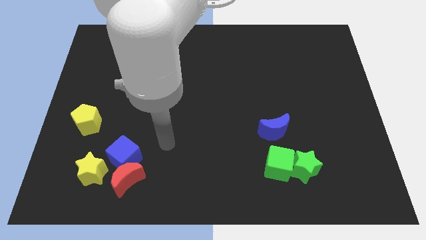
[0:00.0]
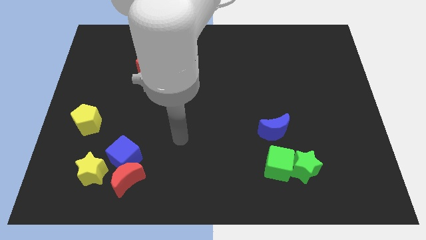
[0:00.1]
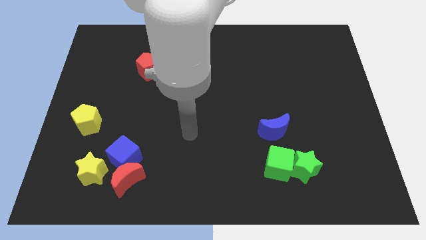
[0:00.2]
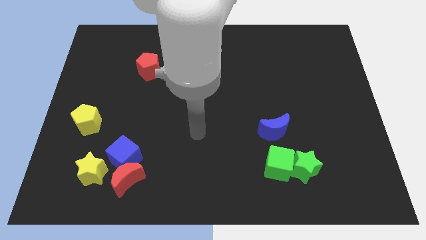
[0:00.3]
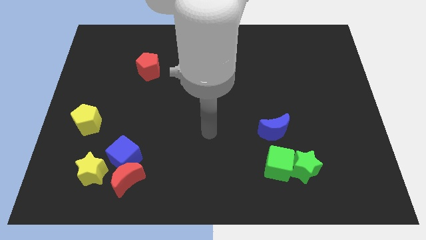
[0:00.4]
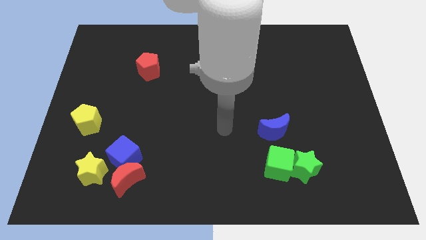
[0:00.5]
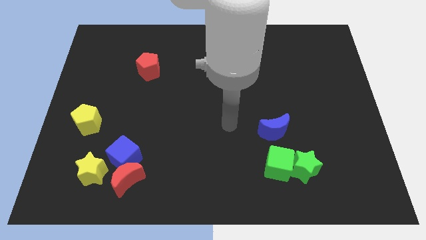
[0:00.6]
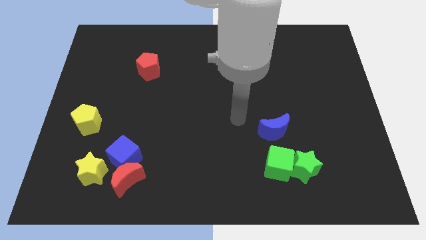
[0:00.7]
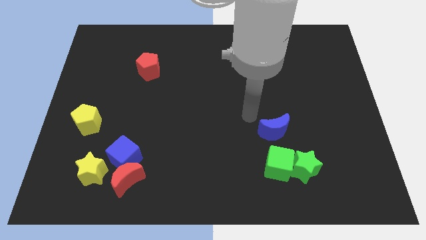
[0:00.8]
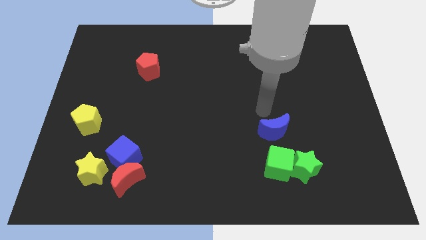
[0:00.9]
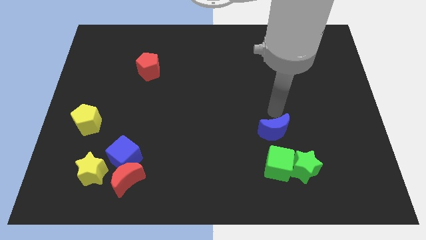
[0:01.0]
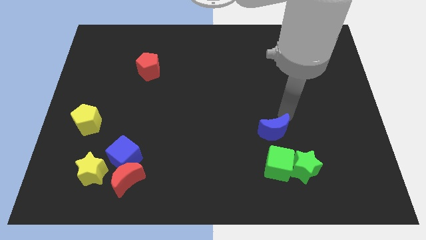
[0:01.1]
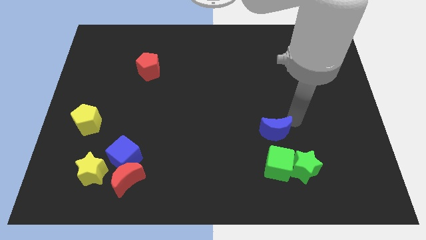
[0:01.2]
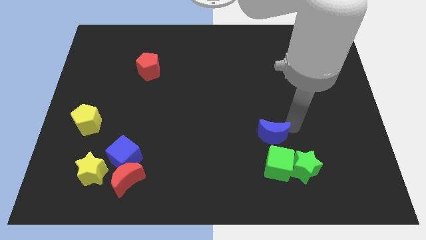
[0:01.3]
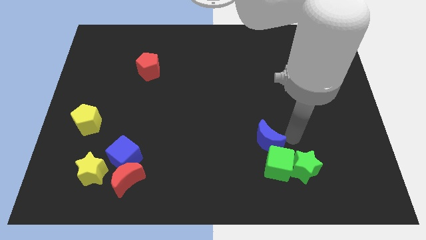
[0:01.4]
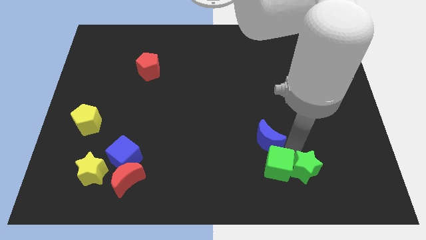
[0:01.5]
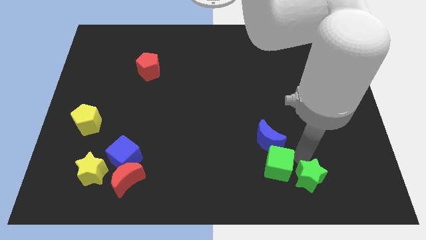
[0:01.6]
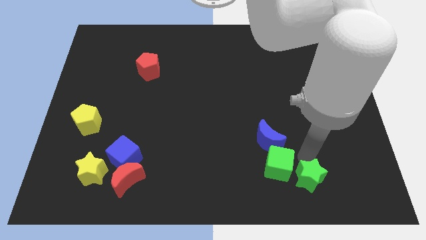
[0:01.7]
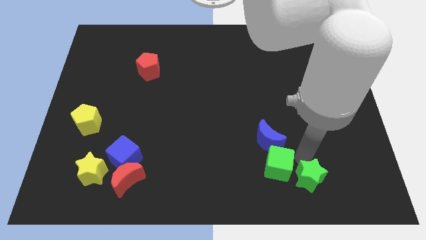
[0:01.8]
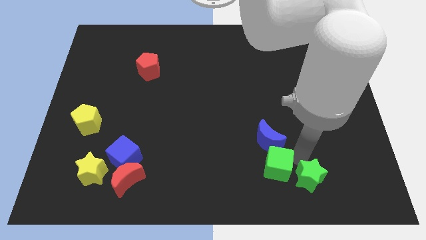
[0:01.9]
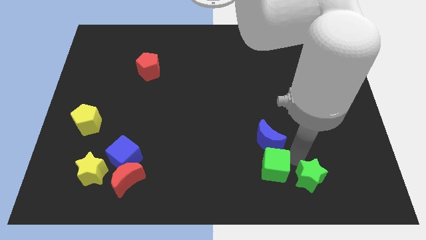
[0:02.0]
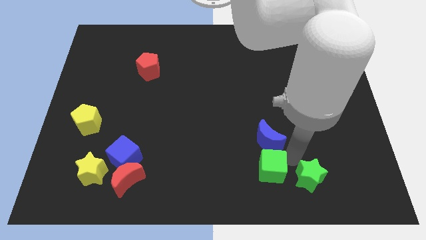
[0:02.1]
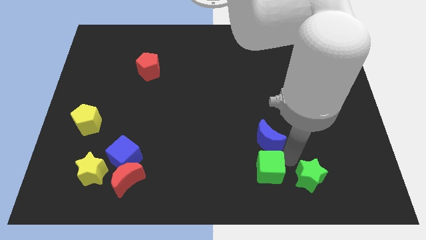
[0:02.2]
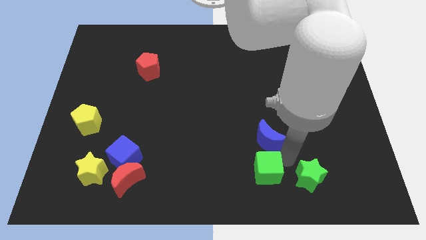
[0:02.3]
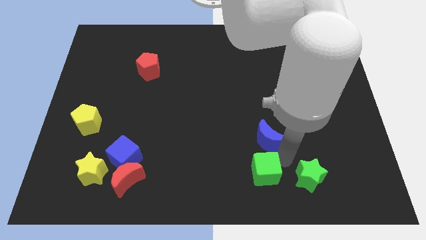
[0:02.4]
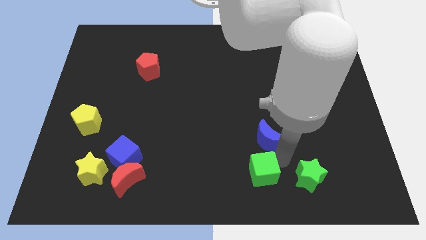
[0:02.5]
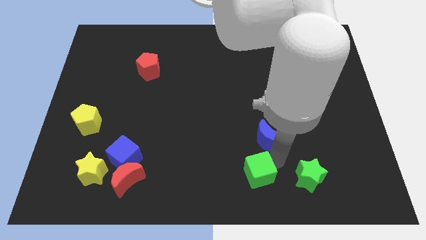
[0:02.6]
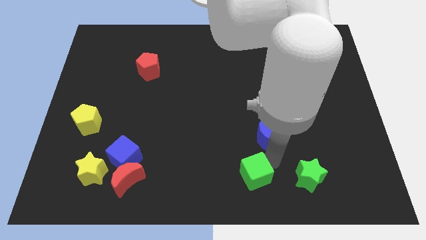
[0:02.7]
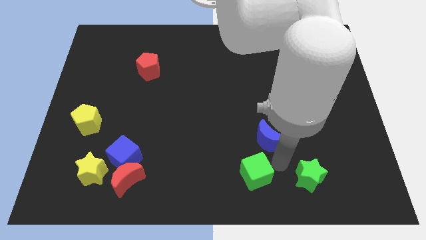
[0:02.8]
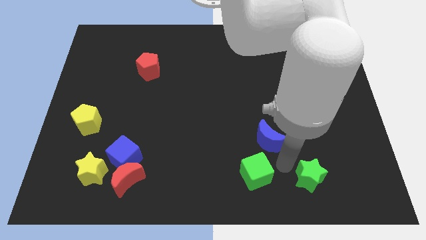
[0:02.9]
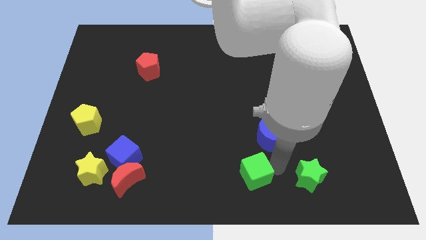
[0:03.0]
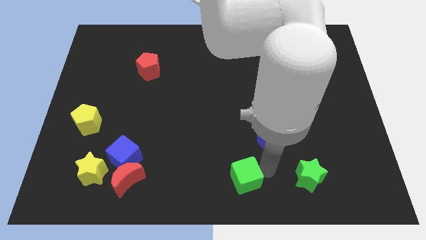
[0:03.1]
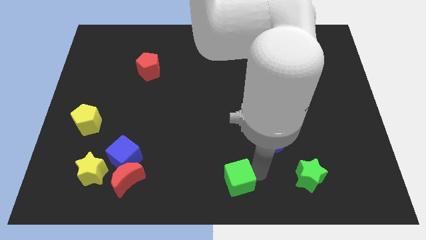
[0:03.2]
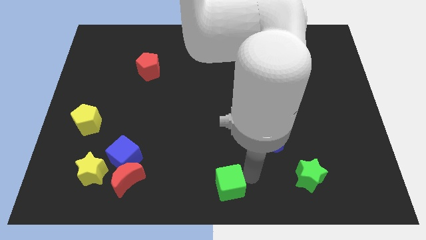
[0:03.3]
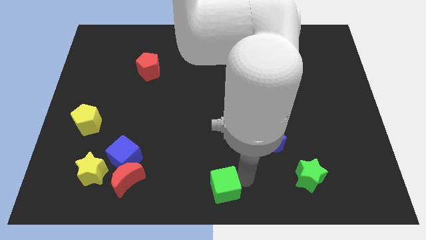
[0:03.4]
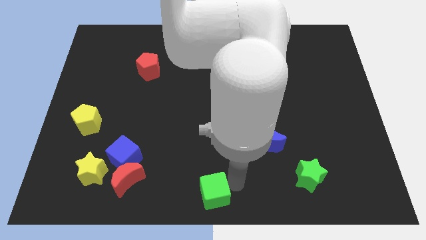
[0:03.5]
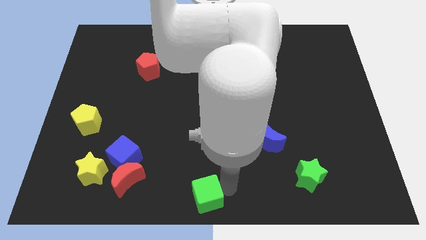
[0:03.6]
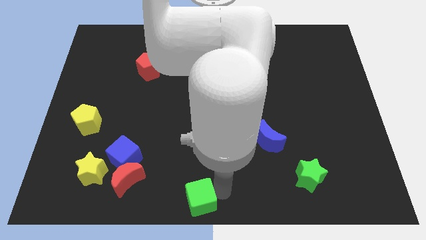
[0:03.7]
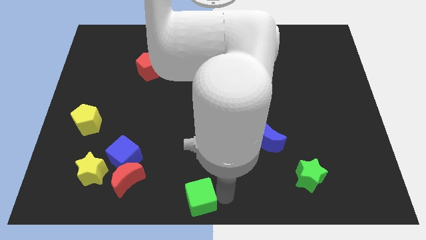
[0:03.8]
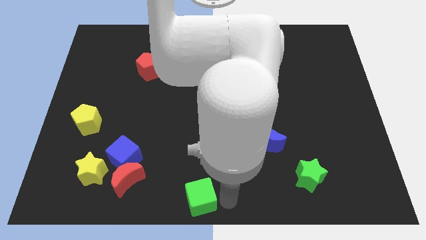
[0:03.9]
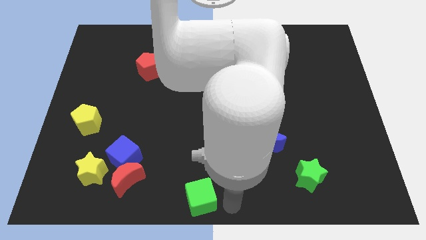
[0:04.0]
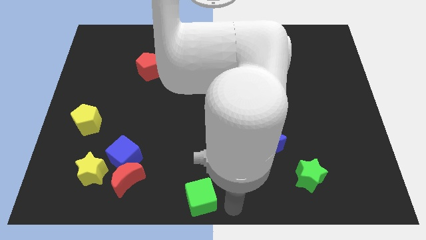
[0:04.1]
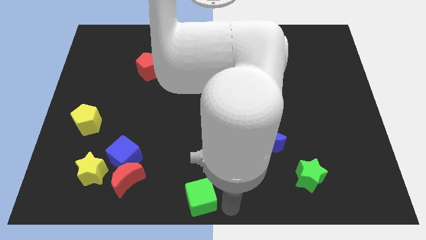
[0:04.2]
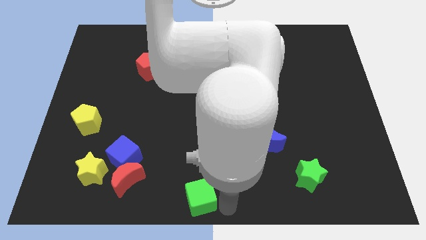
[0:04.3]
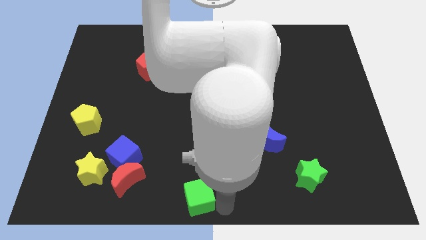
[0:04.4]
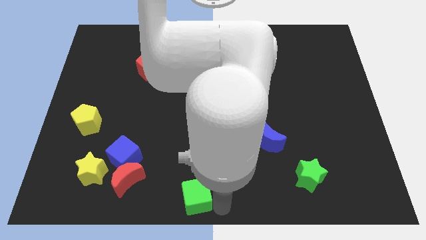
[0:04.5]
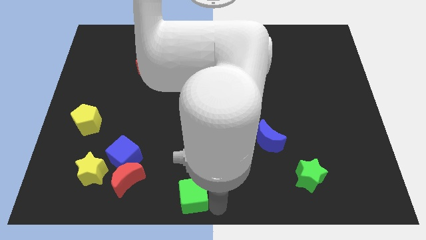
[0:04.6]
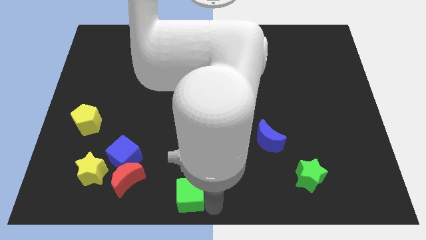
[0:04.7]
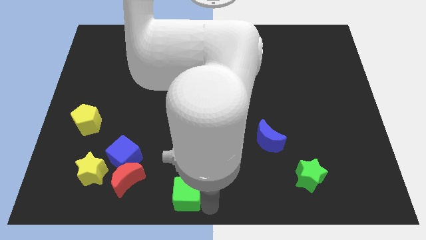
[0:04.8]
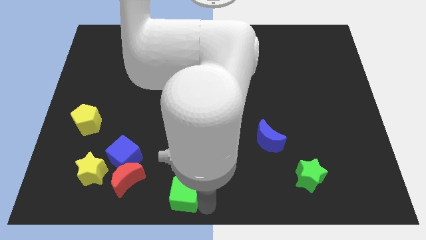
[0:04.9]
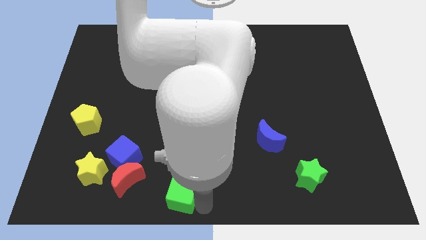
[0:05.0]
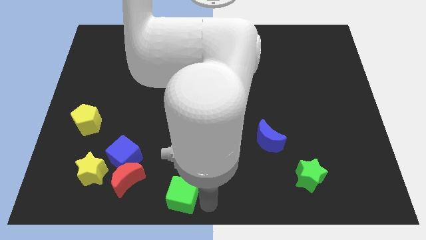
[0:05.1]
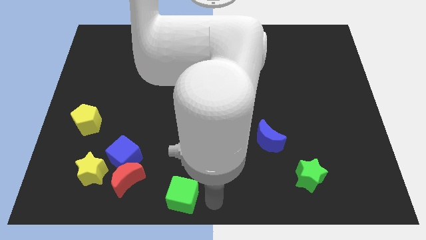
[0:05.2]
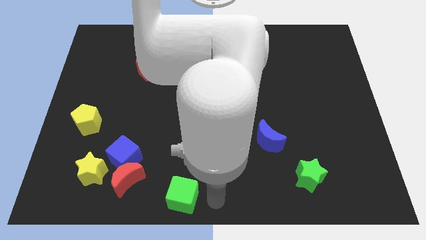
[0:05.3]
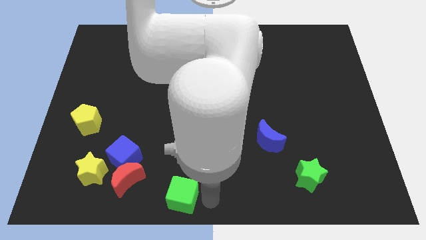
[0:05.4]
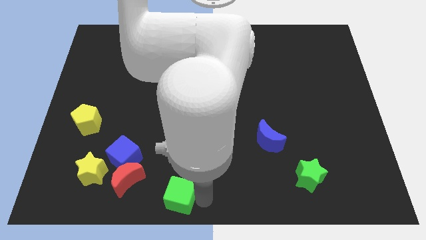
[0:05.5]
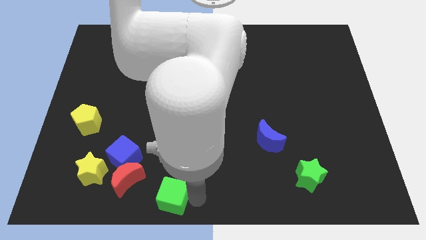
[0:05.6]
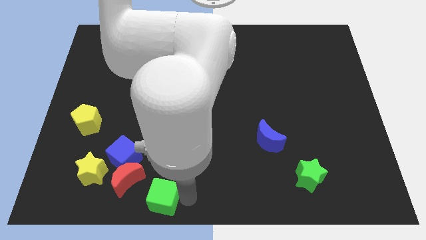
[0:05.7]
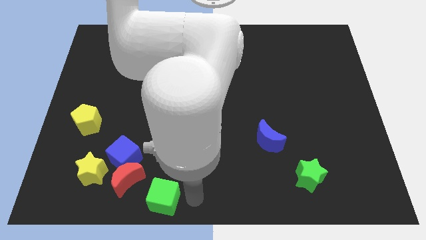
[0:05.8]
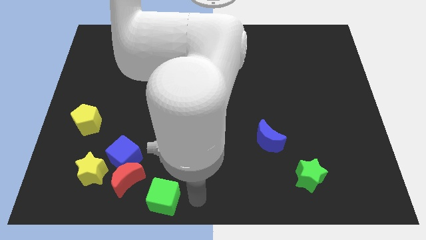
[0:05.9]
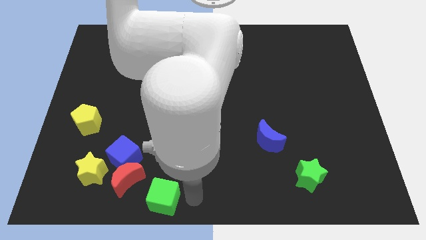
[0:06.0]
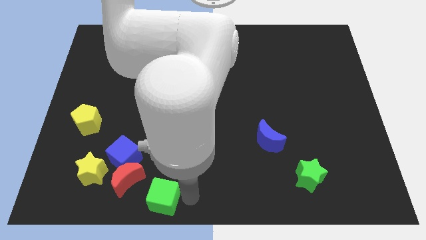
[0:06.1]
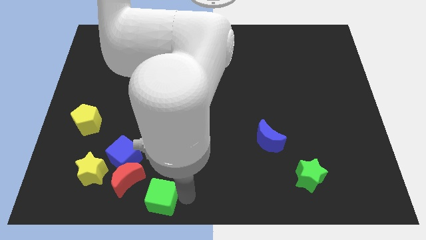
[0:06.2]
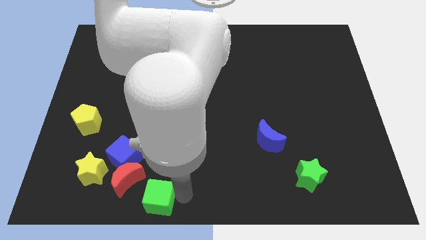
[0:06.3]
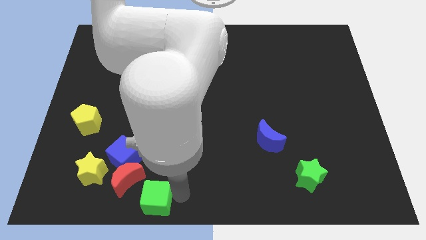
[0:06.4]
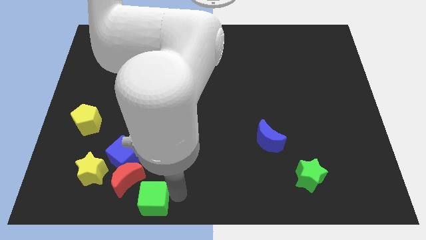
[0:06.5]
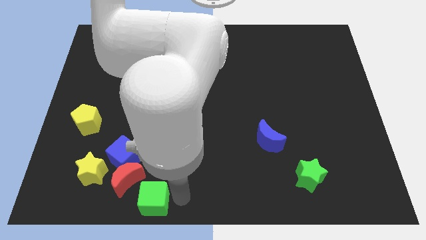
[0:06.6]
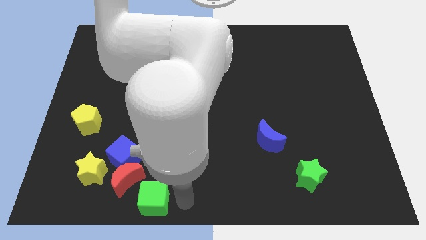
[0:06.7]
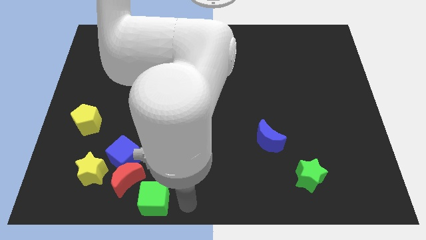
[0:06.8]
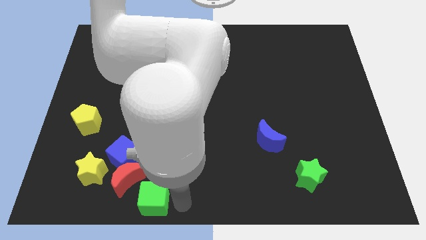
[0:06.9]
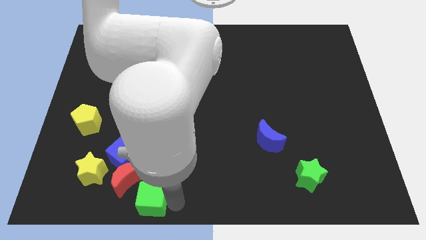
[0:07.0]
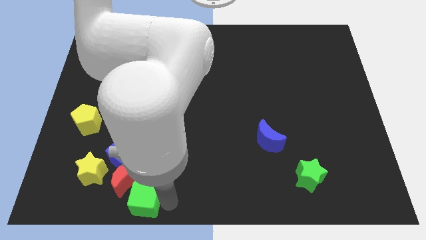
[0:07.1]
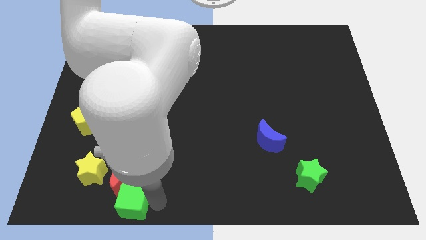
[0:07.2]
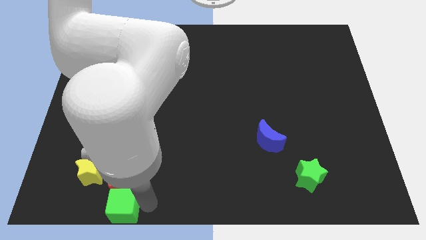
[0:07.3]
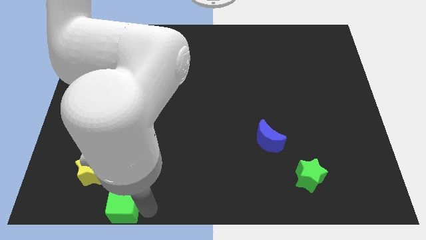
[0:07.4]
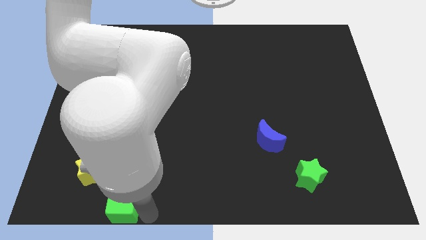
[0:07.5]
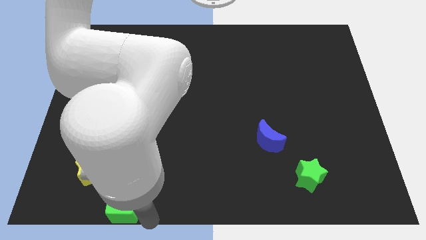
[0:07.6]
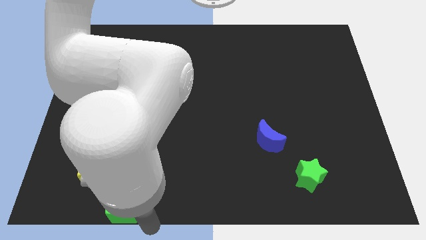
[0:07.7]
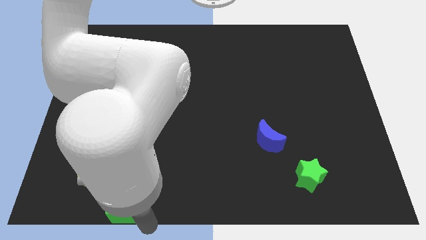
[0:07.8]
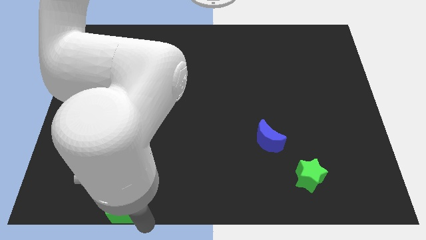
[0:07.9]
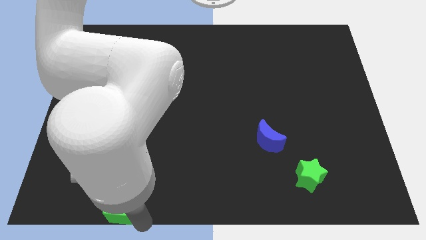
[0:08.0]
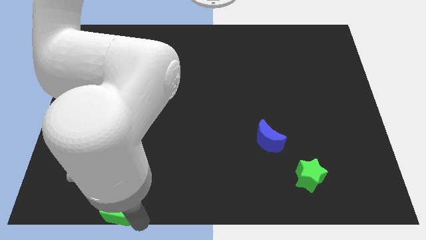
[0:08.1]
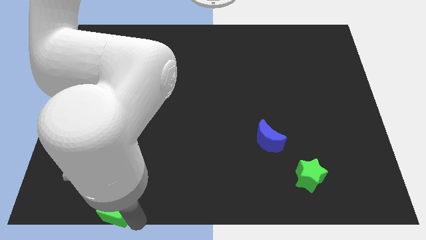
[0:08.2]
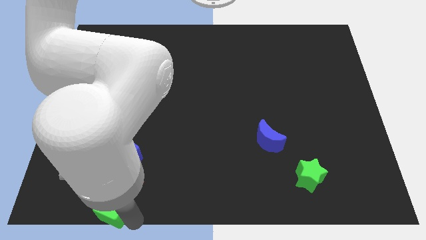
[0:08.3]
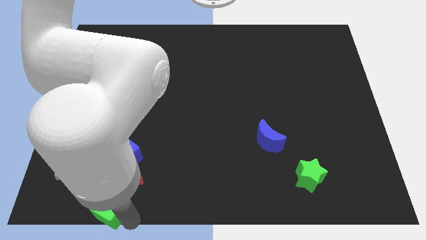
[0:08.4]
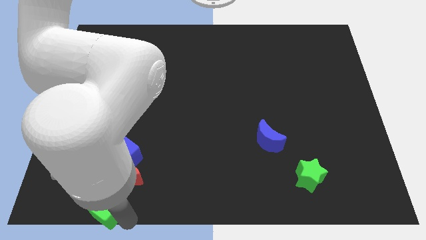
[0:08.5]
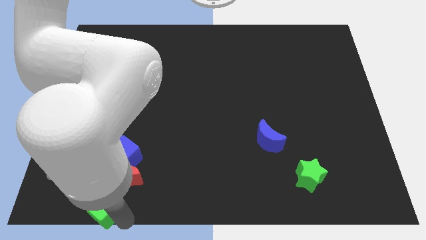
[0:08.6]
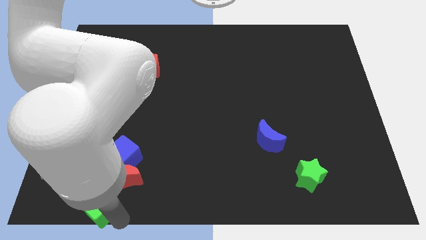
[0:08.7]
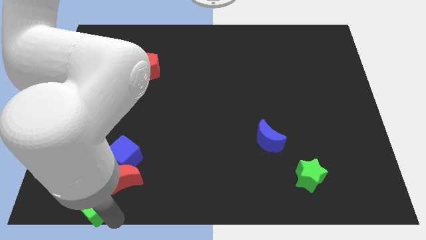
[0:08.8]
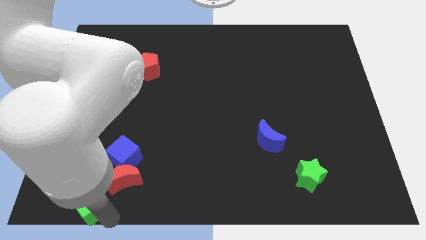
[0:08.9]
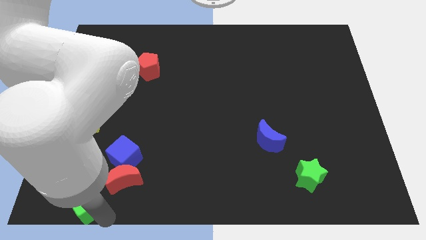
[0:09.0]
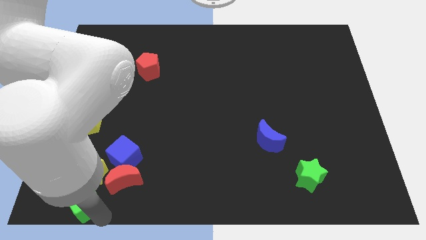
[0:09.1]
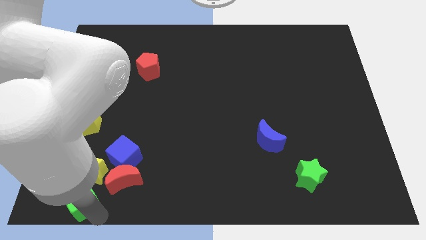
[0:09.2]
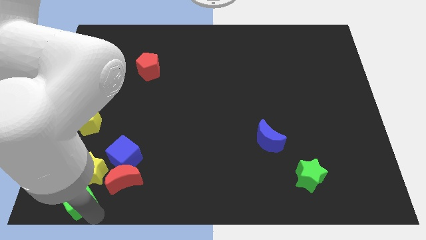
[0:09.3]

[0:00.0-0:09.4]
push the green cube to the yellow star
